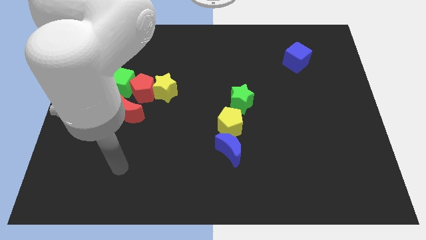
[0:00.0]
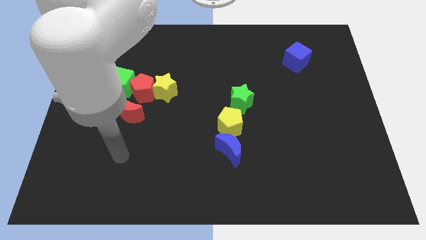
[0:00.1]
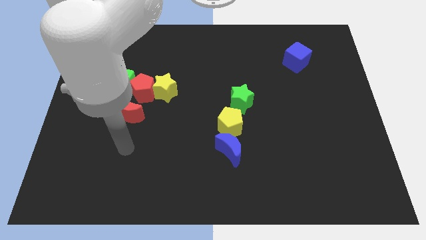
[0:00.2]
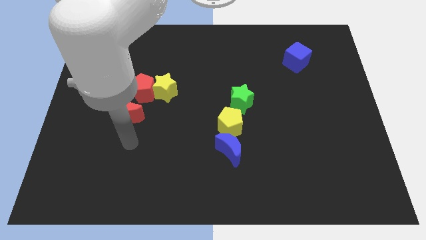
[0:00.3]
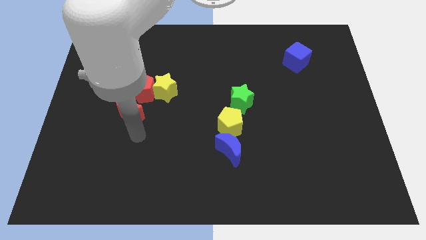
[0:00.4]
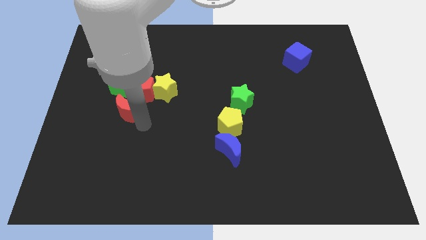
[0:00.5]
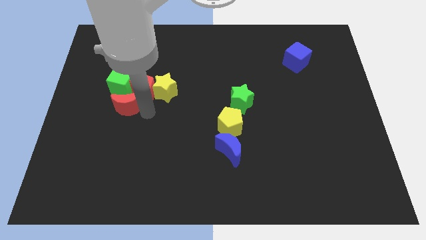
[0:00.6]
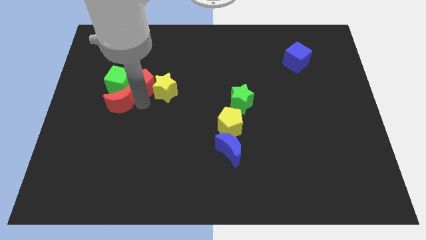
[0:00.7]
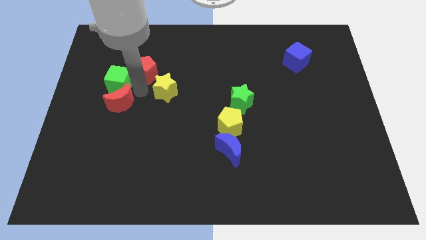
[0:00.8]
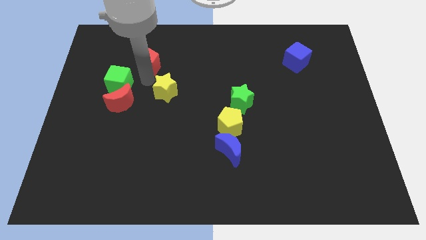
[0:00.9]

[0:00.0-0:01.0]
pull the yellow star apart from the red pentagon

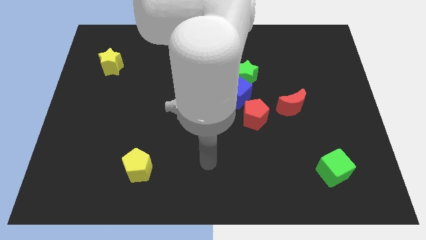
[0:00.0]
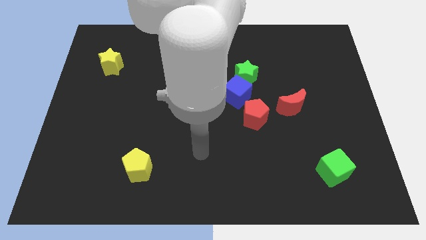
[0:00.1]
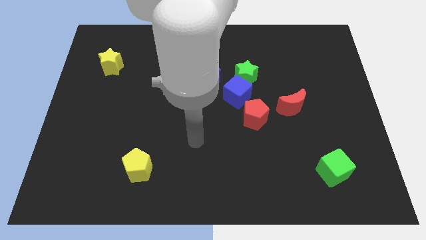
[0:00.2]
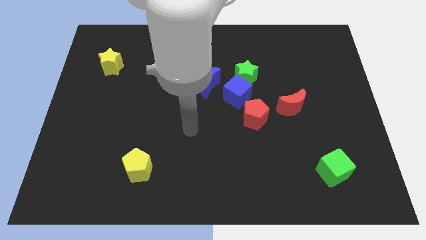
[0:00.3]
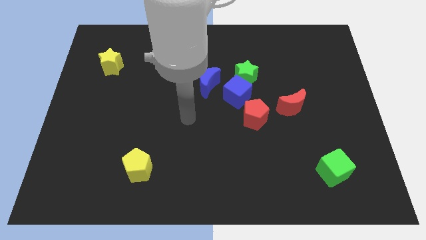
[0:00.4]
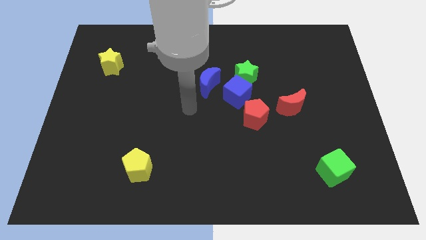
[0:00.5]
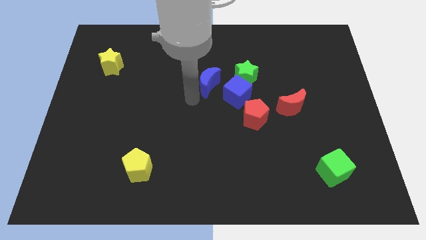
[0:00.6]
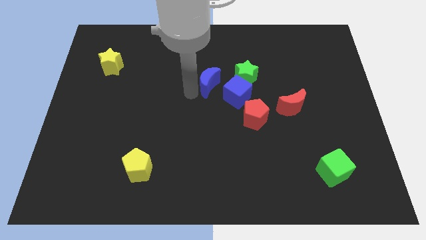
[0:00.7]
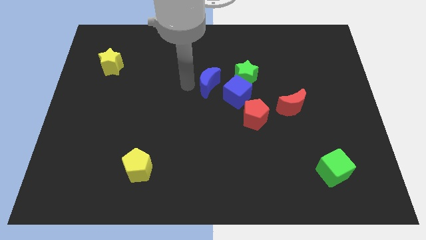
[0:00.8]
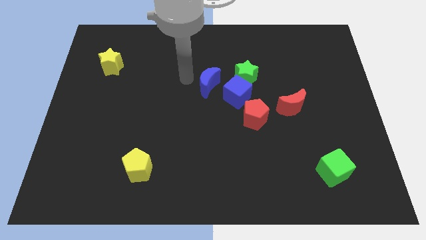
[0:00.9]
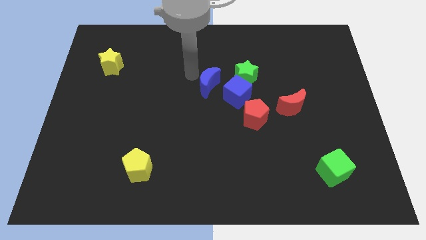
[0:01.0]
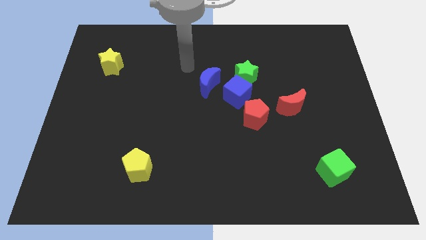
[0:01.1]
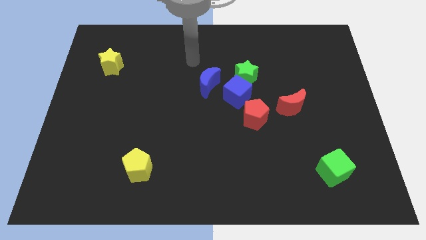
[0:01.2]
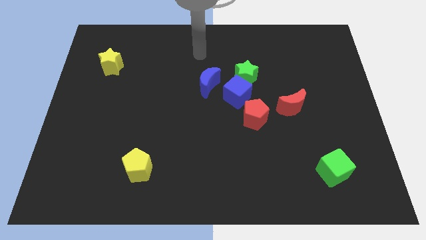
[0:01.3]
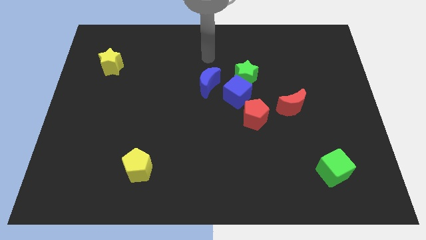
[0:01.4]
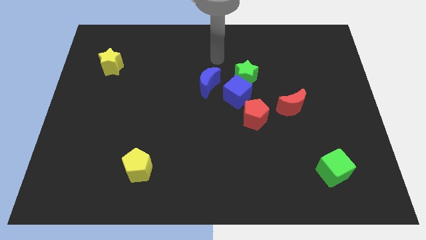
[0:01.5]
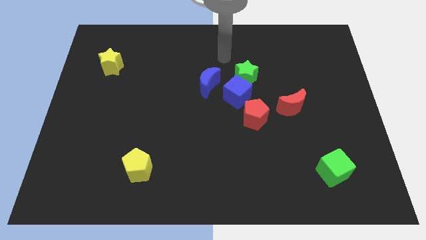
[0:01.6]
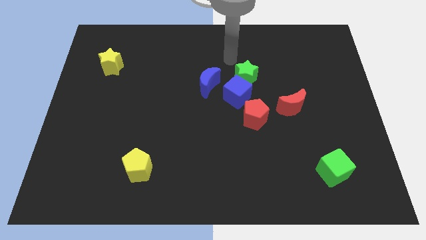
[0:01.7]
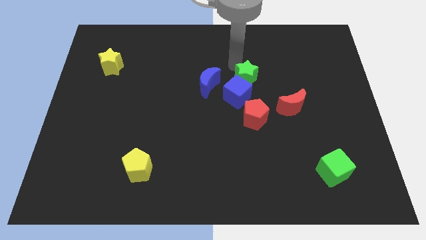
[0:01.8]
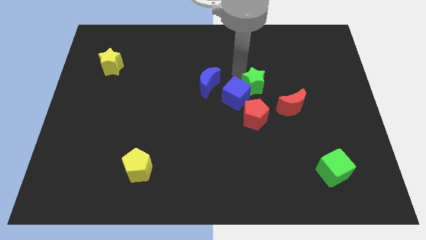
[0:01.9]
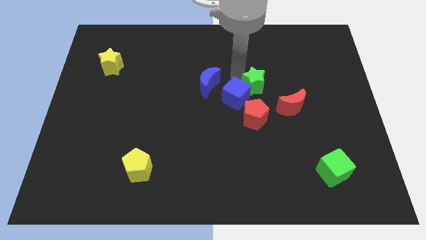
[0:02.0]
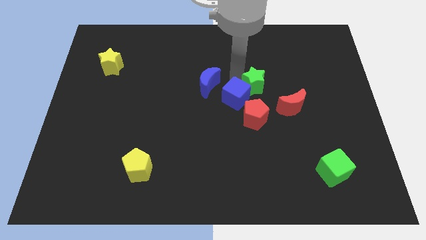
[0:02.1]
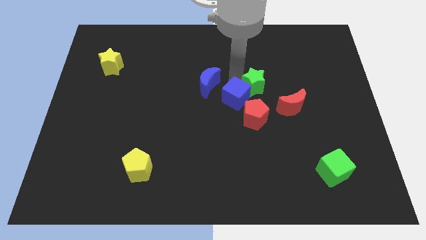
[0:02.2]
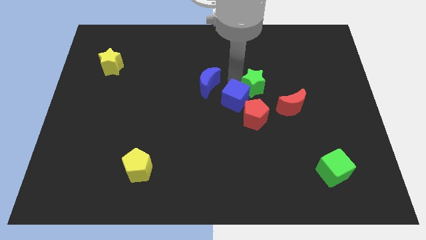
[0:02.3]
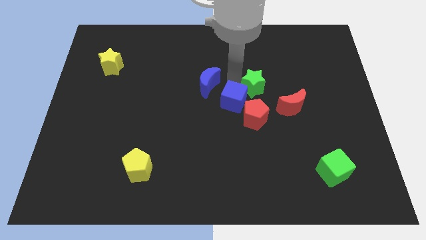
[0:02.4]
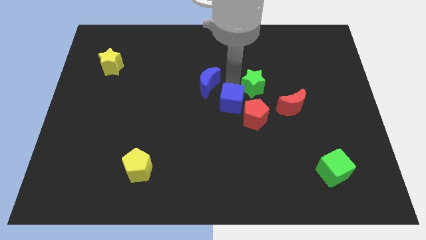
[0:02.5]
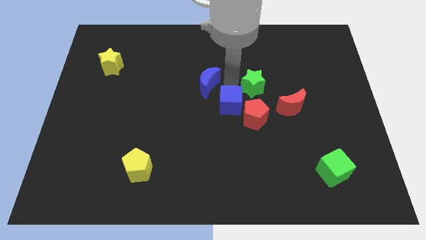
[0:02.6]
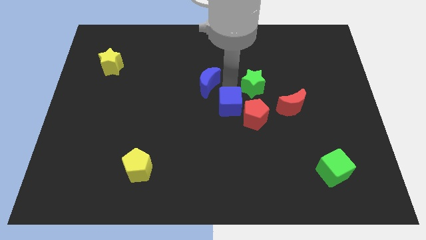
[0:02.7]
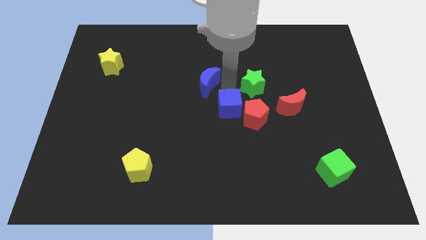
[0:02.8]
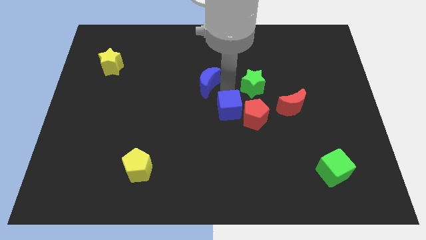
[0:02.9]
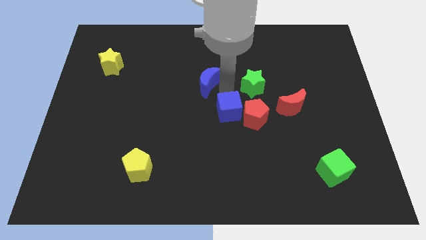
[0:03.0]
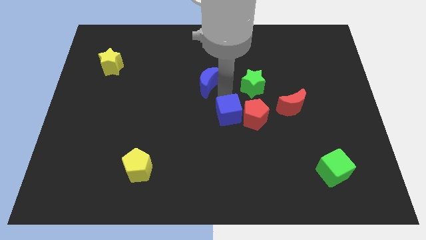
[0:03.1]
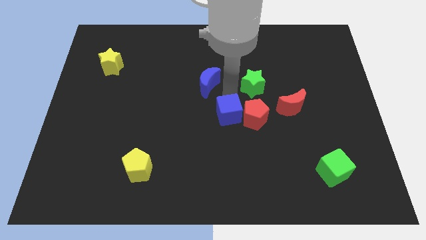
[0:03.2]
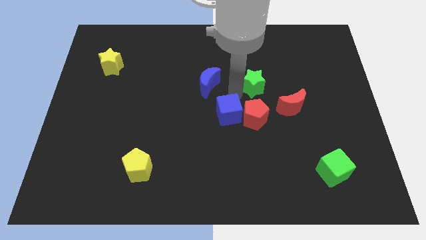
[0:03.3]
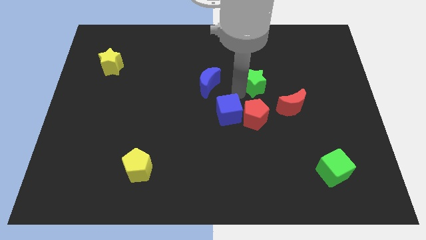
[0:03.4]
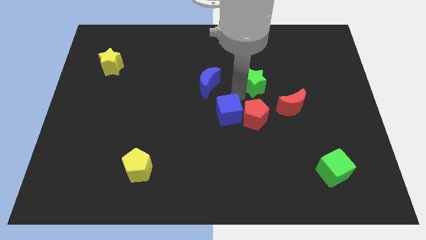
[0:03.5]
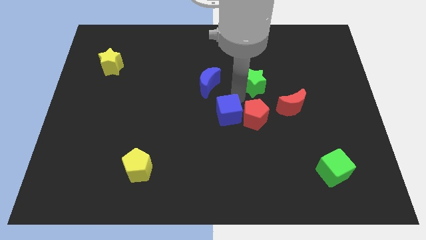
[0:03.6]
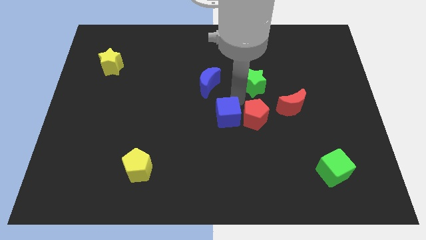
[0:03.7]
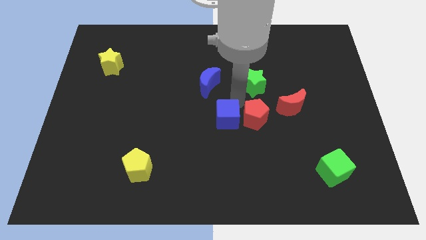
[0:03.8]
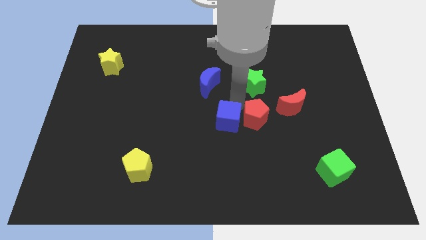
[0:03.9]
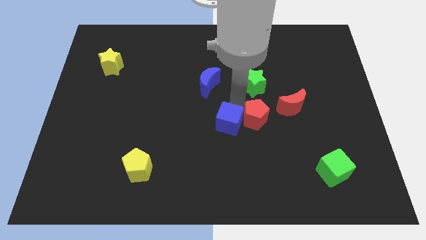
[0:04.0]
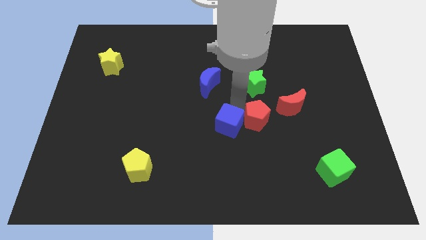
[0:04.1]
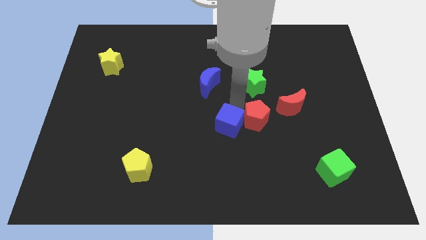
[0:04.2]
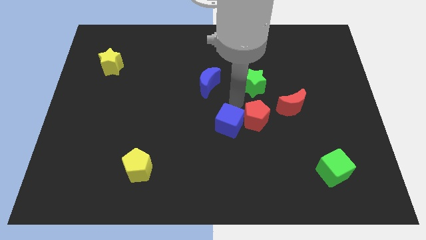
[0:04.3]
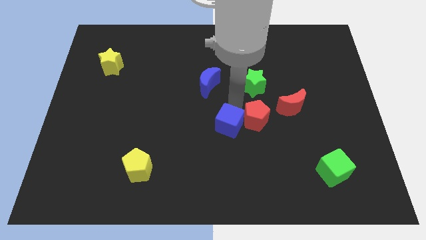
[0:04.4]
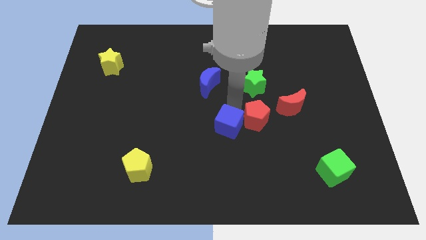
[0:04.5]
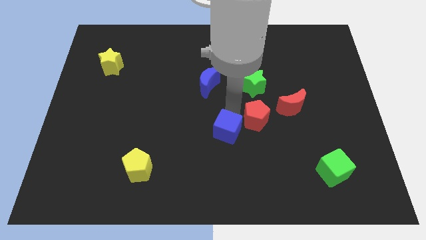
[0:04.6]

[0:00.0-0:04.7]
pull the blue cube apart from the green star, red pentagon, and blue moon

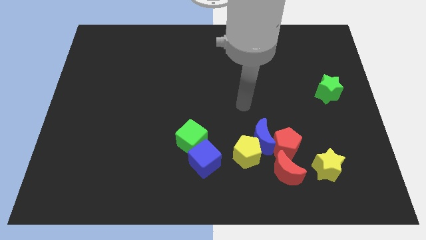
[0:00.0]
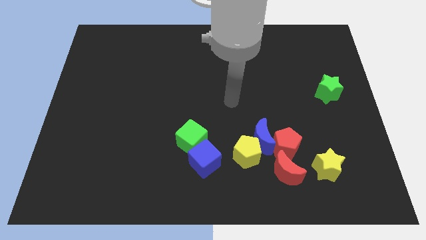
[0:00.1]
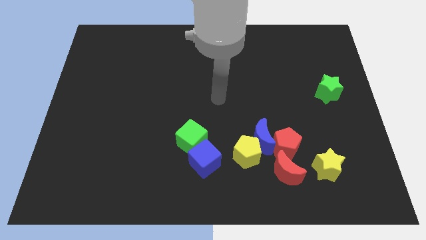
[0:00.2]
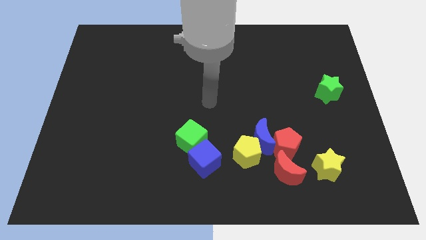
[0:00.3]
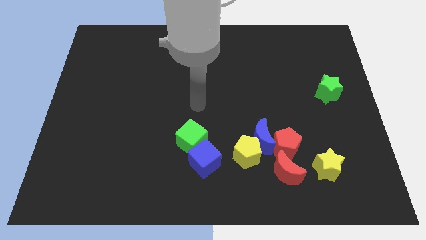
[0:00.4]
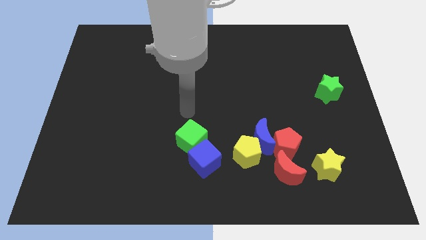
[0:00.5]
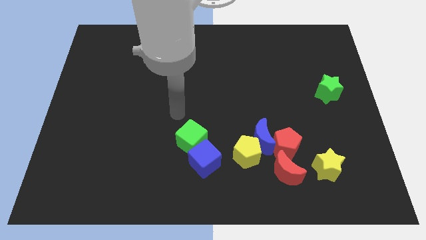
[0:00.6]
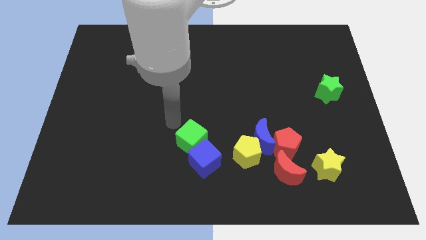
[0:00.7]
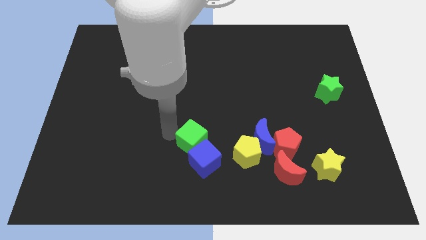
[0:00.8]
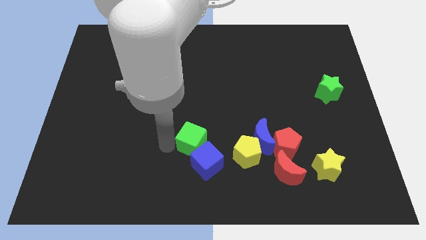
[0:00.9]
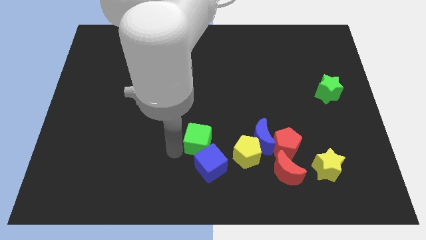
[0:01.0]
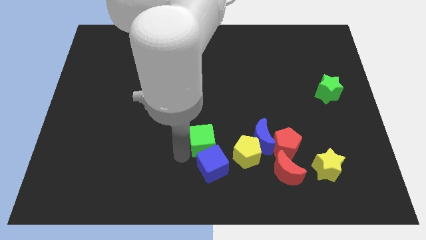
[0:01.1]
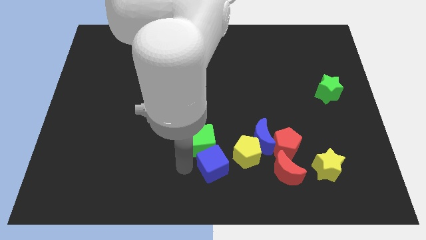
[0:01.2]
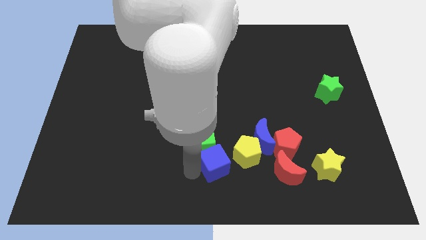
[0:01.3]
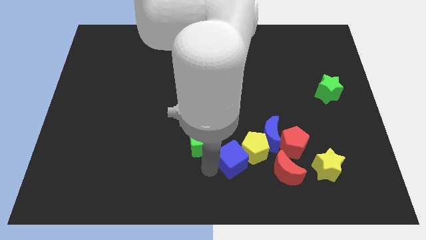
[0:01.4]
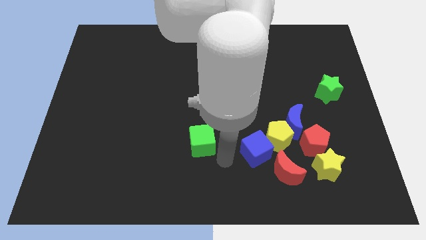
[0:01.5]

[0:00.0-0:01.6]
pull the green cube apart from the blue cube

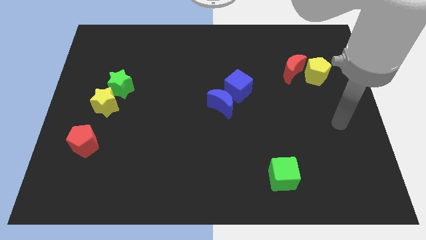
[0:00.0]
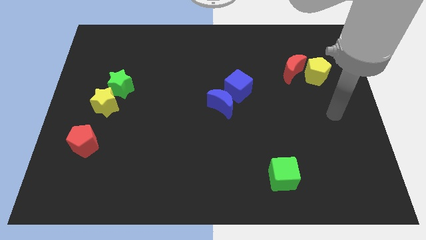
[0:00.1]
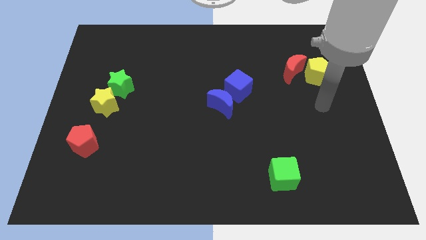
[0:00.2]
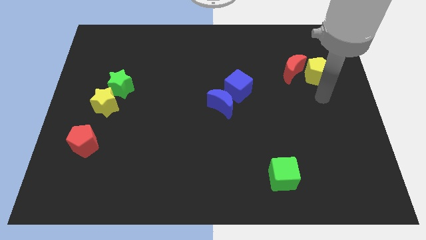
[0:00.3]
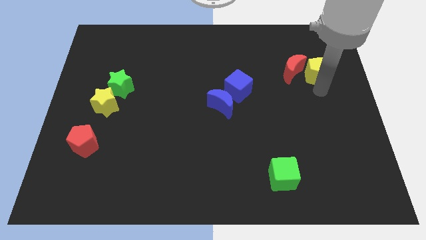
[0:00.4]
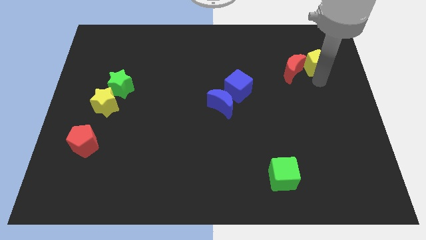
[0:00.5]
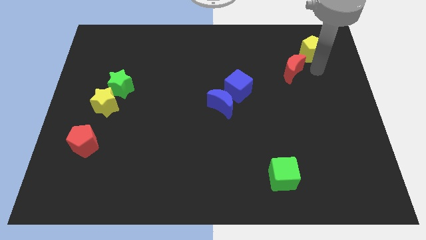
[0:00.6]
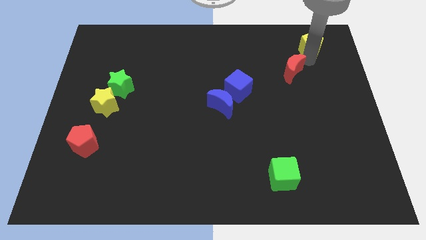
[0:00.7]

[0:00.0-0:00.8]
pull the red moon apart from the yellow pentagon

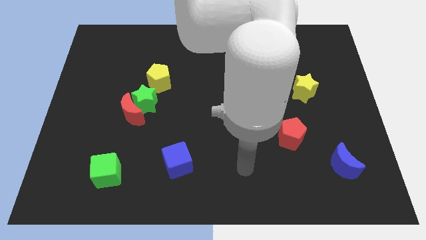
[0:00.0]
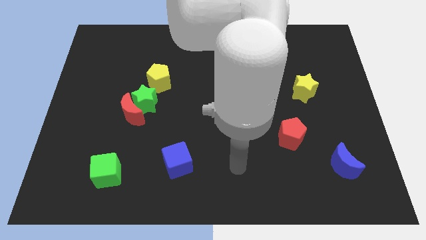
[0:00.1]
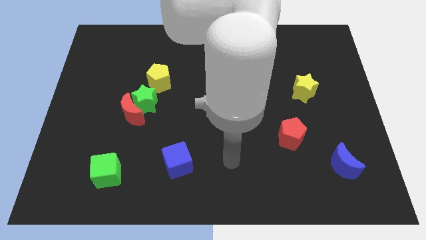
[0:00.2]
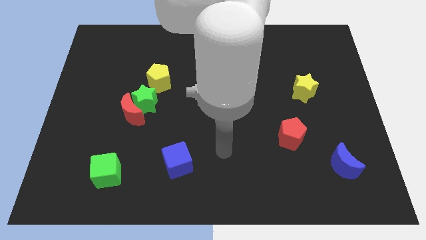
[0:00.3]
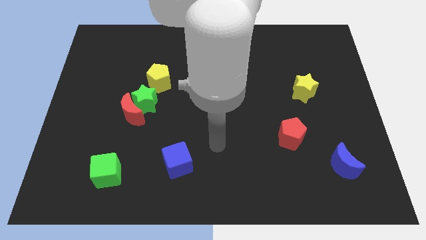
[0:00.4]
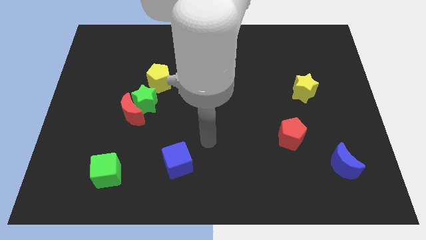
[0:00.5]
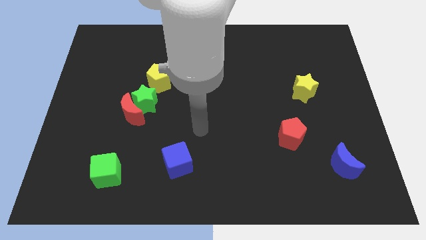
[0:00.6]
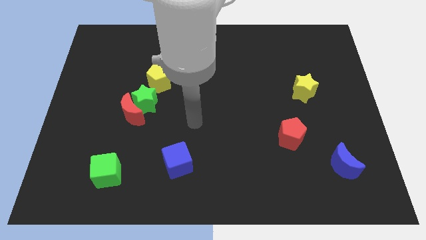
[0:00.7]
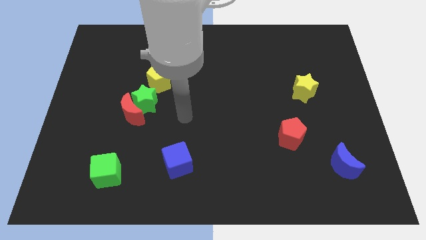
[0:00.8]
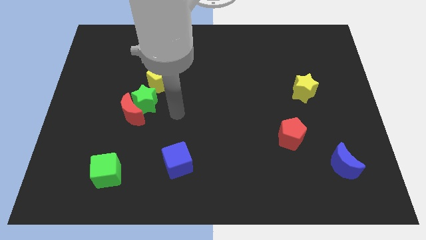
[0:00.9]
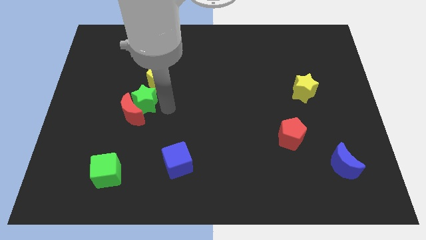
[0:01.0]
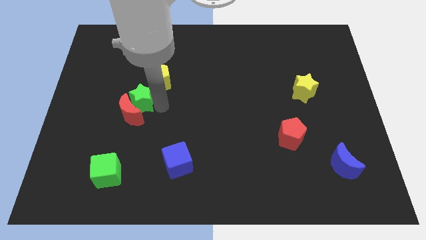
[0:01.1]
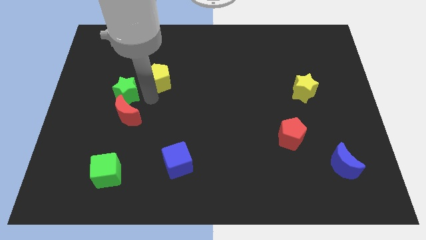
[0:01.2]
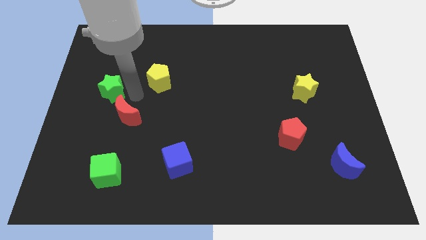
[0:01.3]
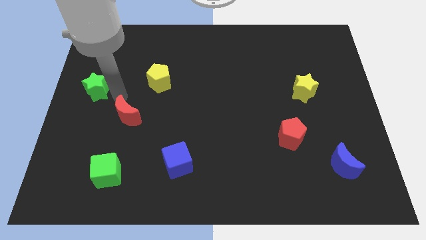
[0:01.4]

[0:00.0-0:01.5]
separate the red moon from the green star
